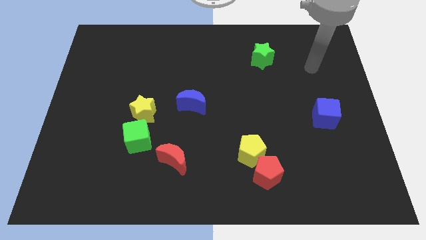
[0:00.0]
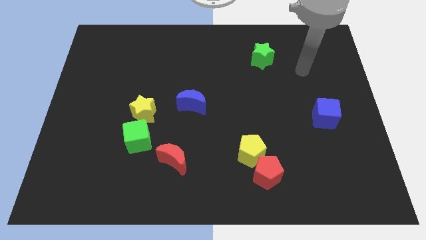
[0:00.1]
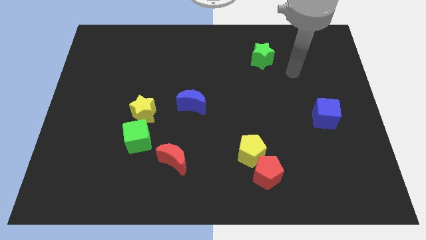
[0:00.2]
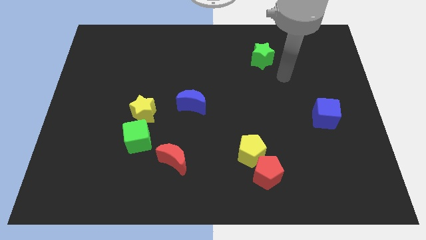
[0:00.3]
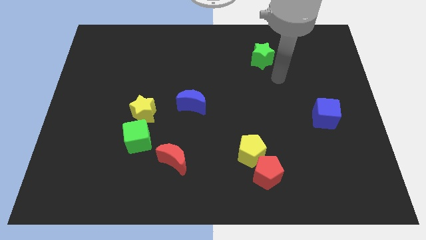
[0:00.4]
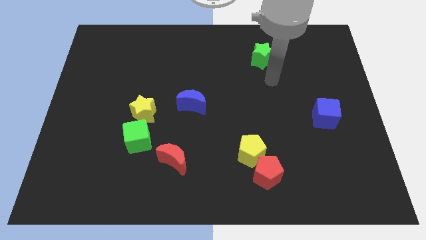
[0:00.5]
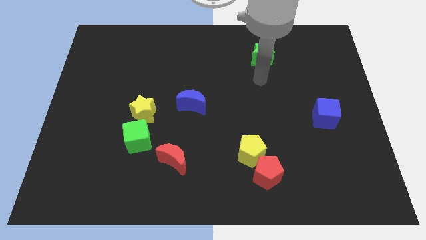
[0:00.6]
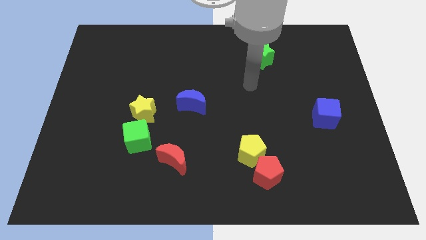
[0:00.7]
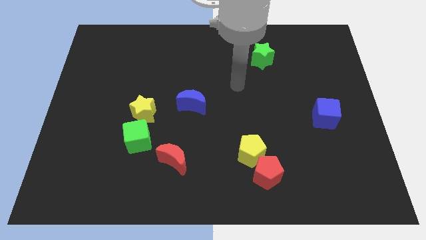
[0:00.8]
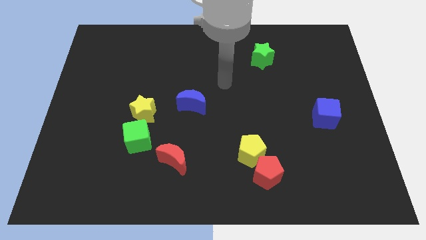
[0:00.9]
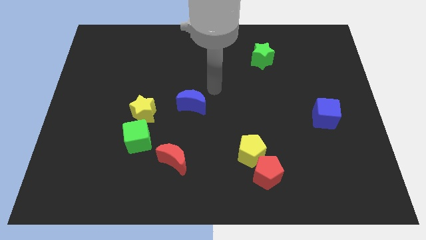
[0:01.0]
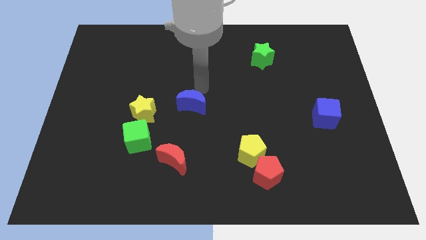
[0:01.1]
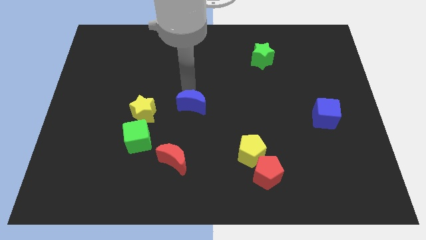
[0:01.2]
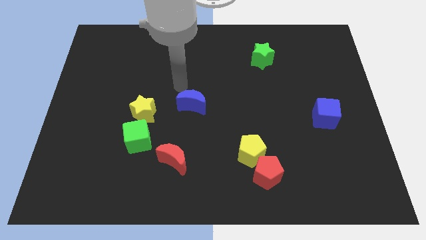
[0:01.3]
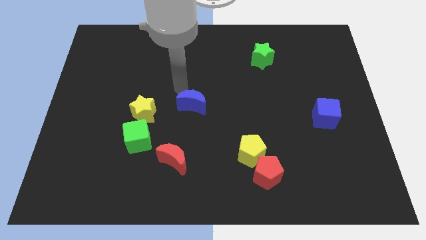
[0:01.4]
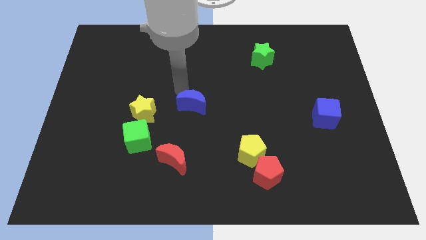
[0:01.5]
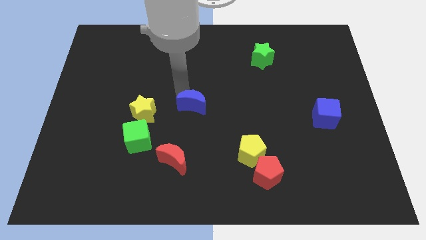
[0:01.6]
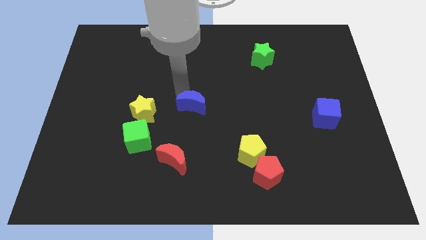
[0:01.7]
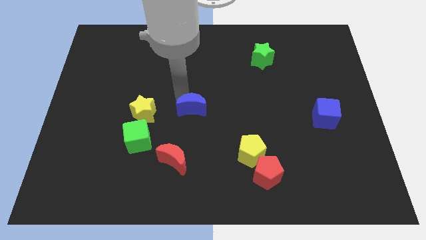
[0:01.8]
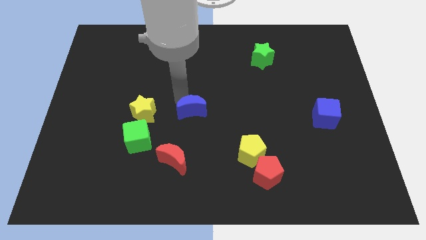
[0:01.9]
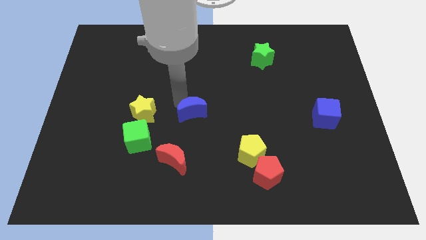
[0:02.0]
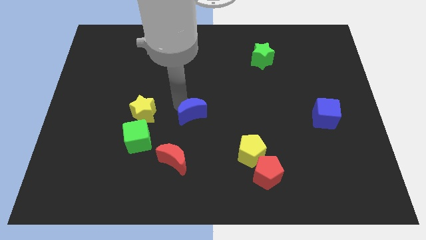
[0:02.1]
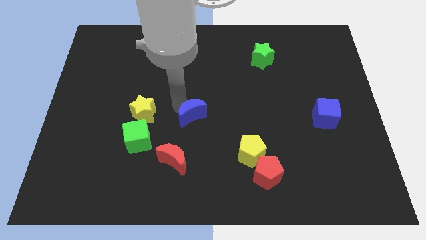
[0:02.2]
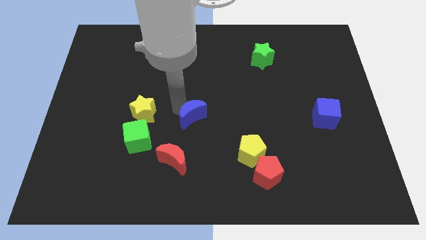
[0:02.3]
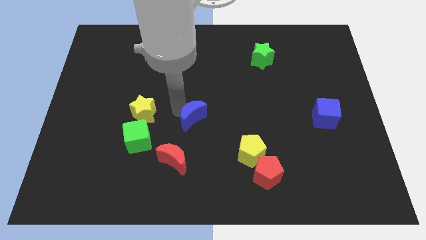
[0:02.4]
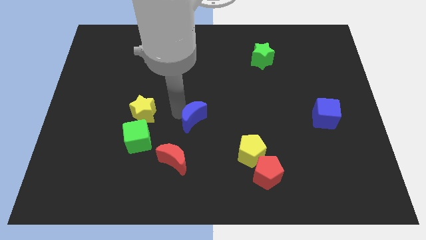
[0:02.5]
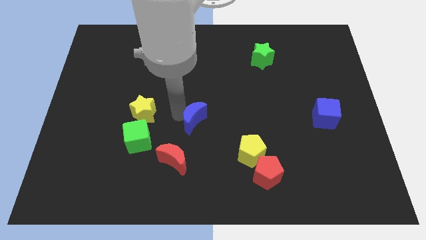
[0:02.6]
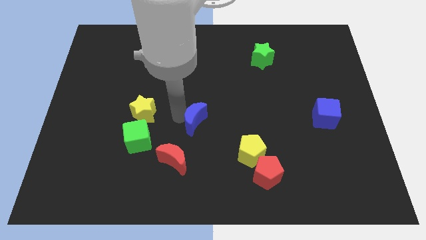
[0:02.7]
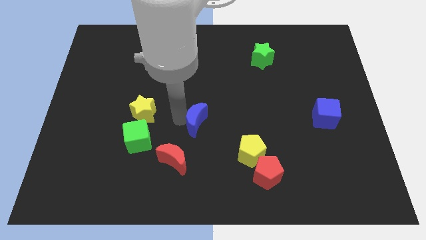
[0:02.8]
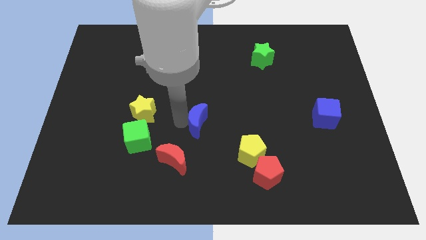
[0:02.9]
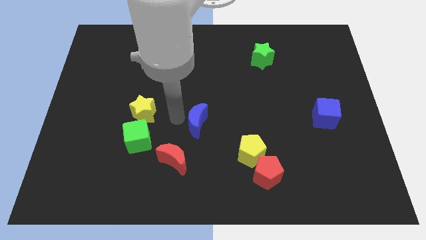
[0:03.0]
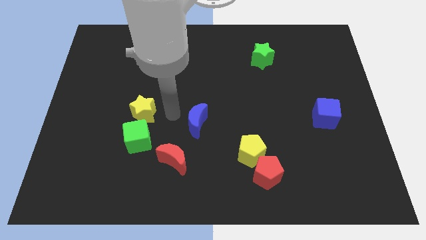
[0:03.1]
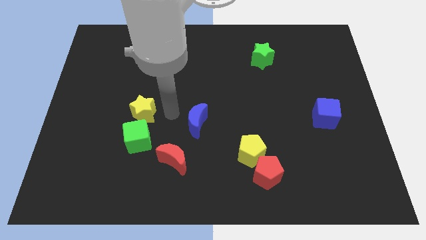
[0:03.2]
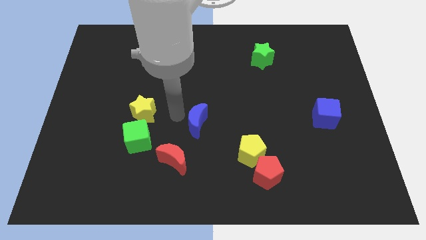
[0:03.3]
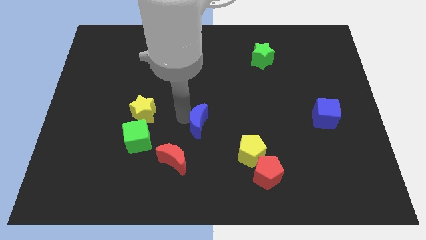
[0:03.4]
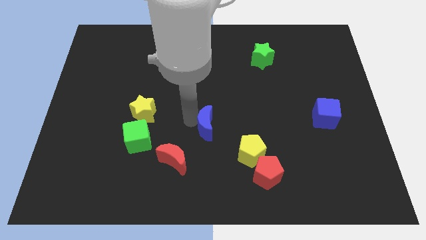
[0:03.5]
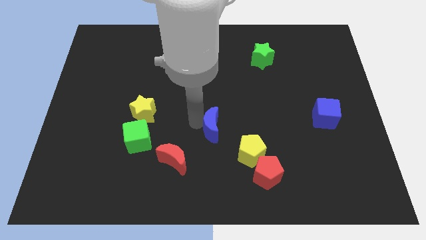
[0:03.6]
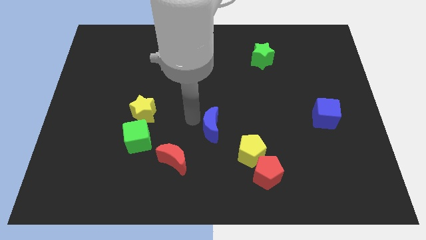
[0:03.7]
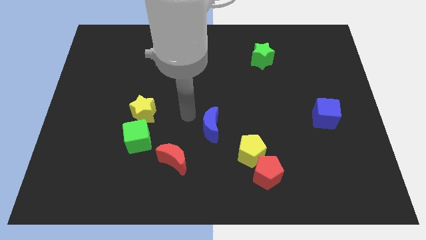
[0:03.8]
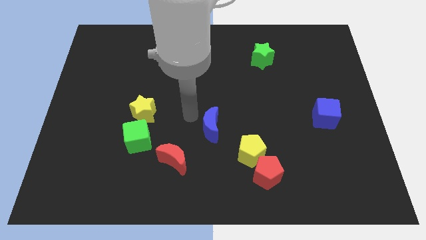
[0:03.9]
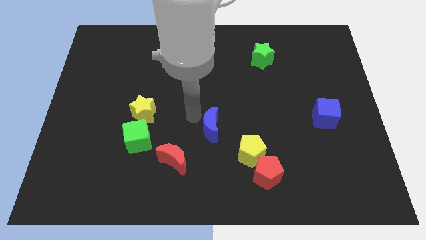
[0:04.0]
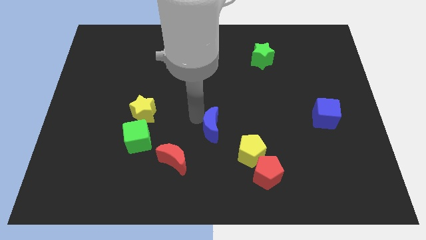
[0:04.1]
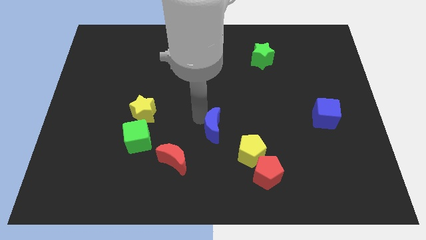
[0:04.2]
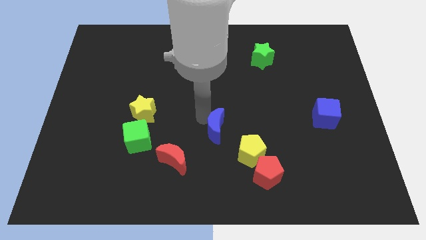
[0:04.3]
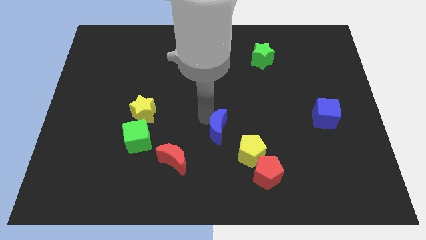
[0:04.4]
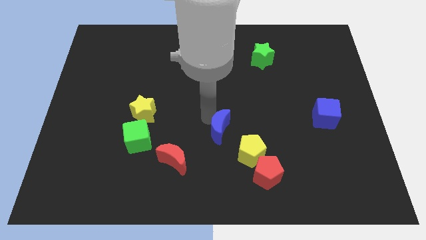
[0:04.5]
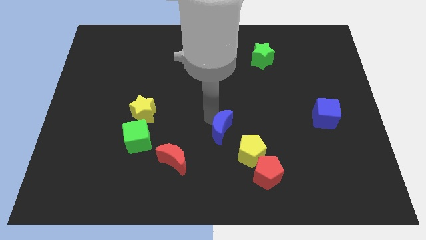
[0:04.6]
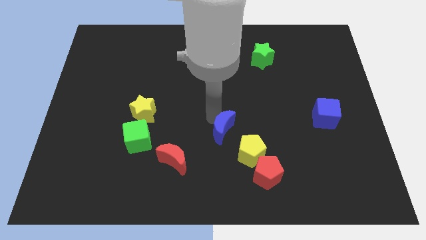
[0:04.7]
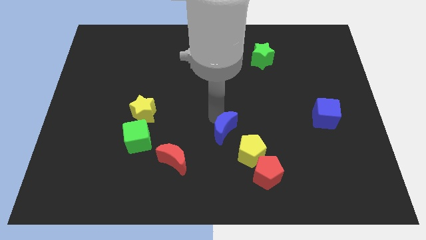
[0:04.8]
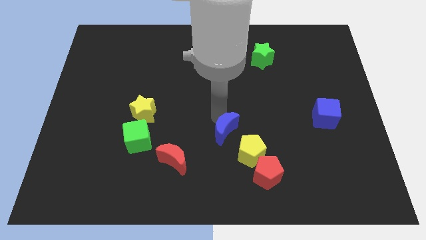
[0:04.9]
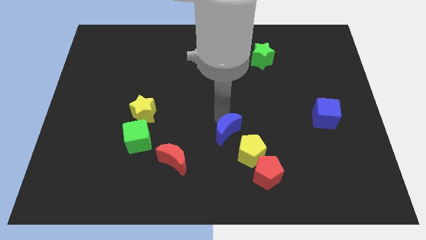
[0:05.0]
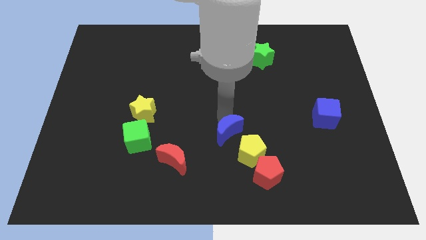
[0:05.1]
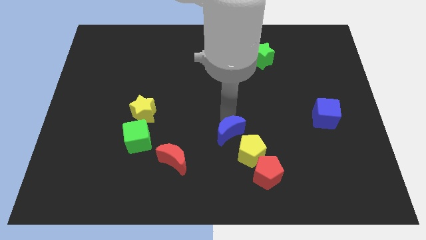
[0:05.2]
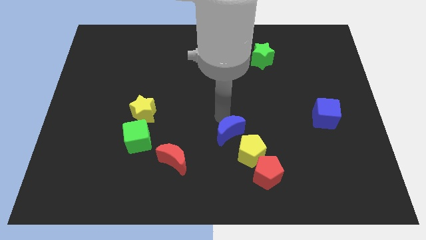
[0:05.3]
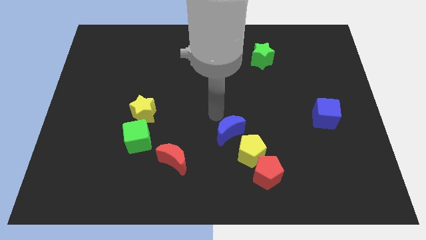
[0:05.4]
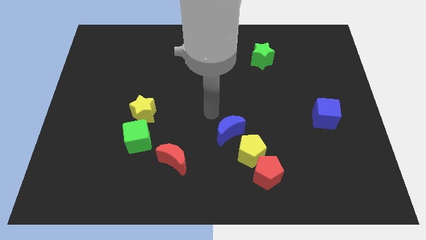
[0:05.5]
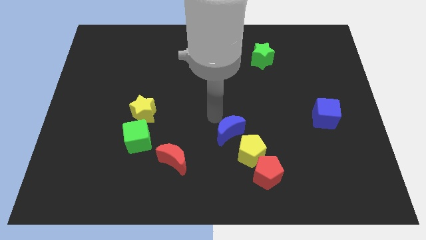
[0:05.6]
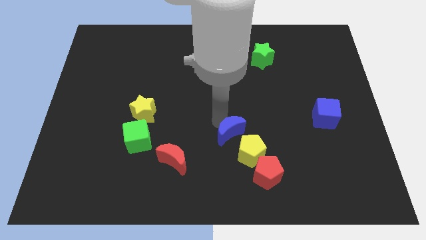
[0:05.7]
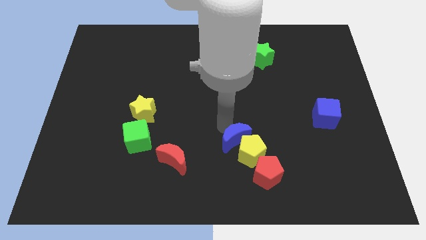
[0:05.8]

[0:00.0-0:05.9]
move the blue moon close to the yellow pentagon
